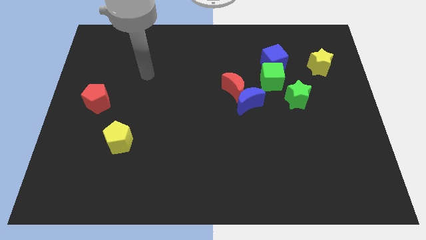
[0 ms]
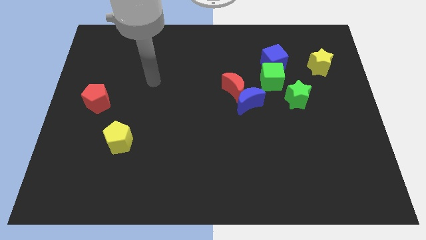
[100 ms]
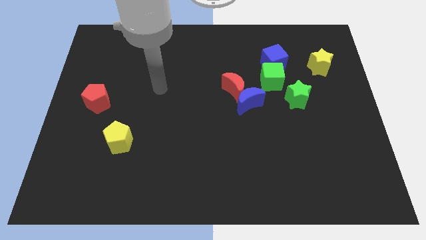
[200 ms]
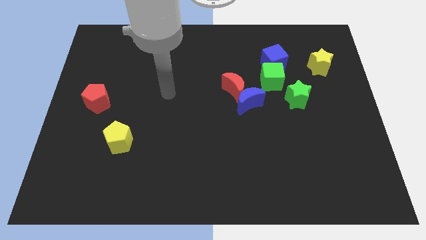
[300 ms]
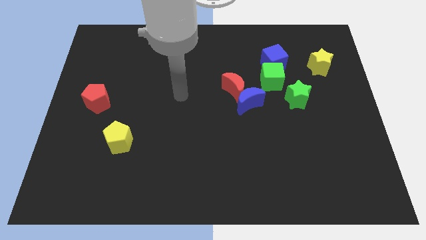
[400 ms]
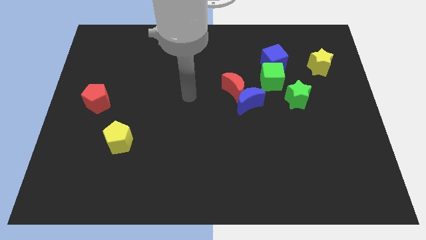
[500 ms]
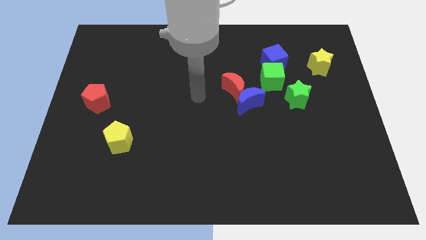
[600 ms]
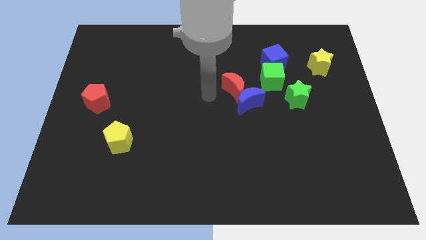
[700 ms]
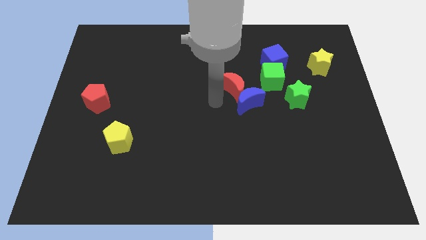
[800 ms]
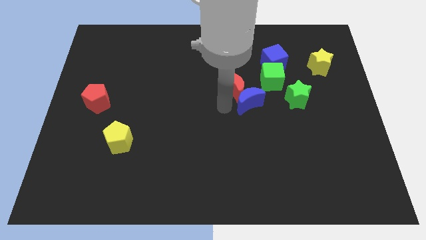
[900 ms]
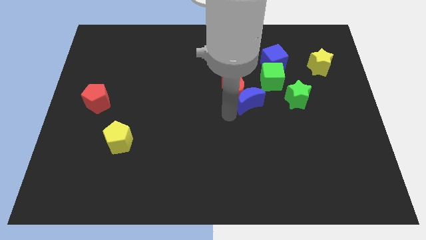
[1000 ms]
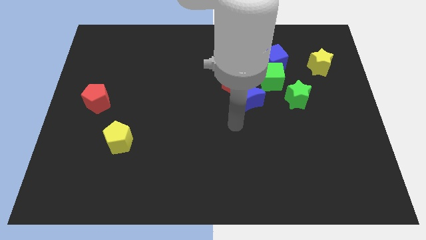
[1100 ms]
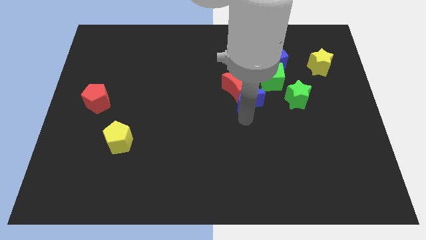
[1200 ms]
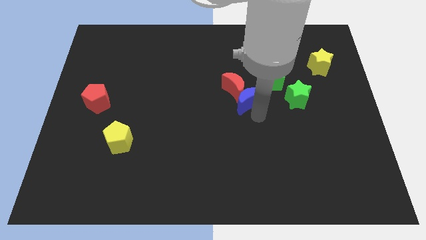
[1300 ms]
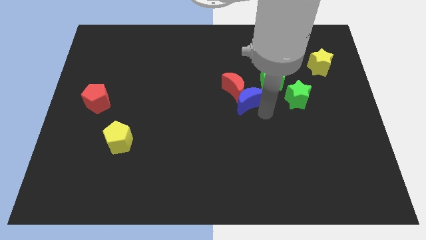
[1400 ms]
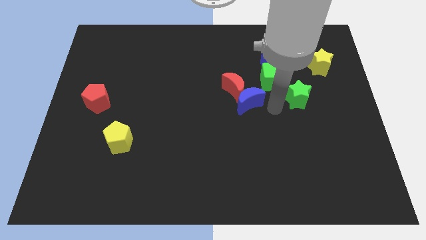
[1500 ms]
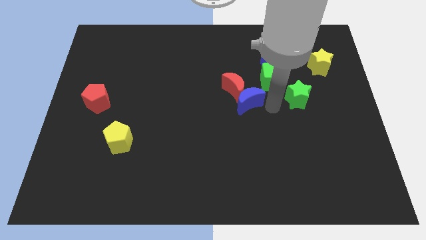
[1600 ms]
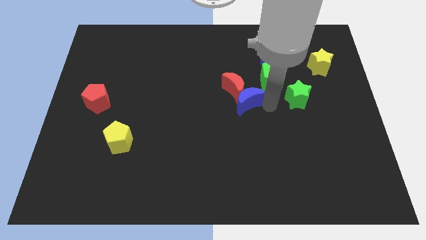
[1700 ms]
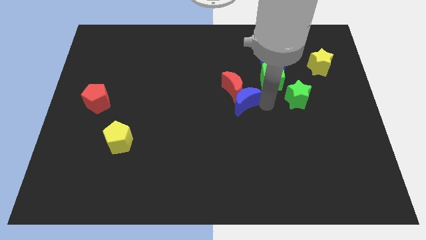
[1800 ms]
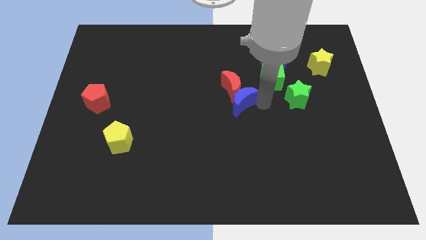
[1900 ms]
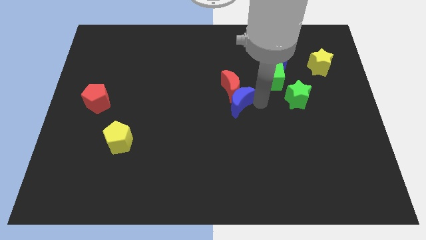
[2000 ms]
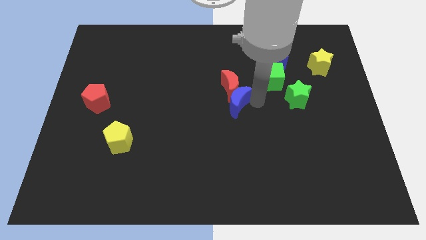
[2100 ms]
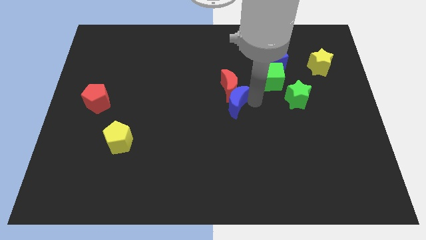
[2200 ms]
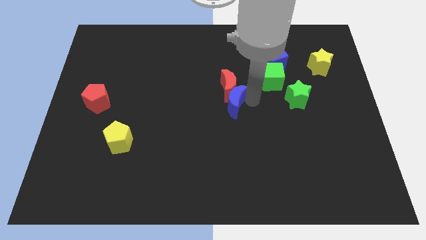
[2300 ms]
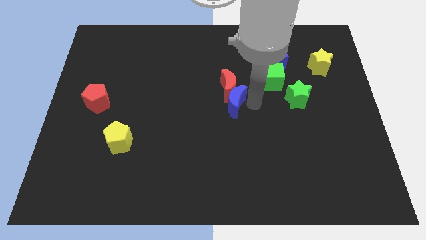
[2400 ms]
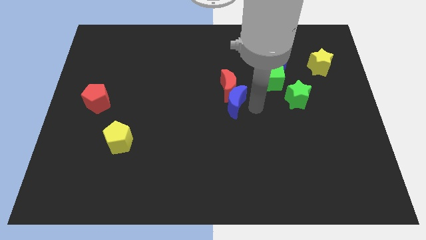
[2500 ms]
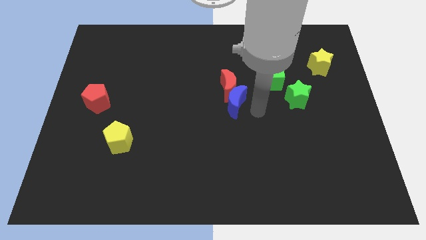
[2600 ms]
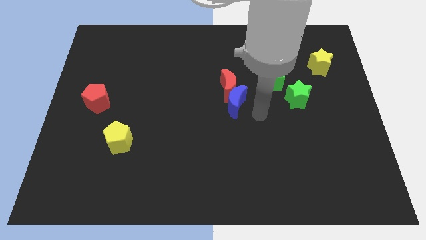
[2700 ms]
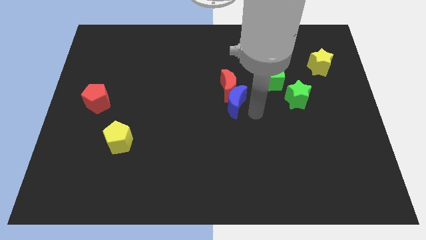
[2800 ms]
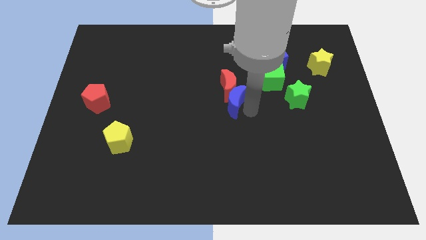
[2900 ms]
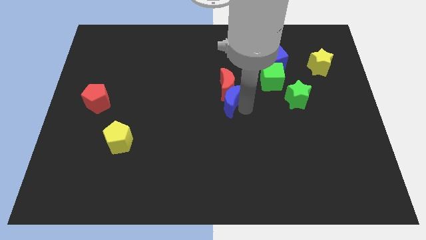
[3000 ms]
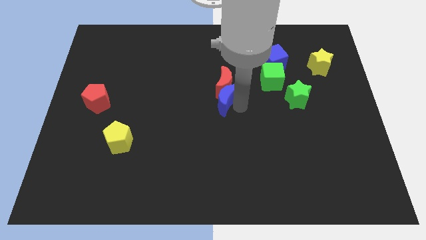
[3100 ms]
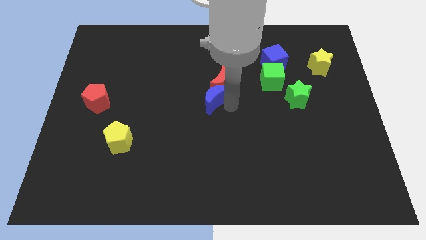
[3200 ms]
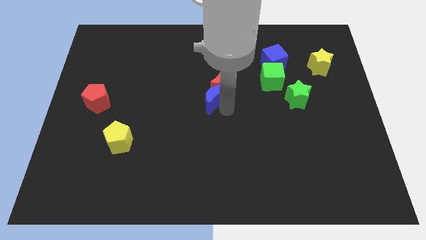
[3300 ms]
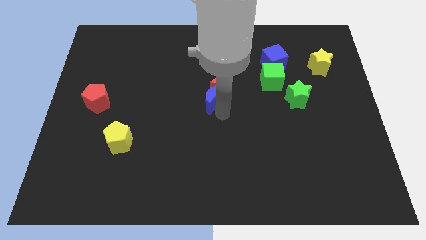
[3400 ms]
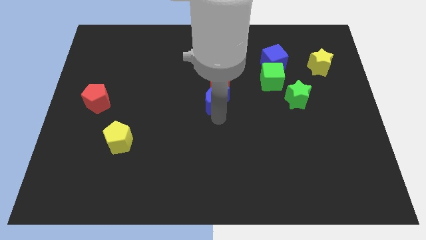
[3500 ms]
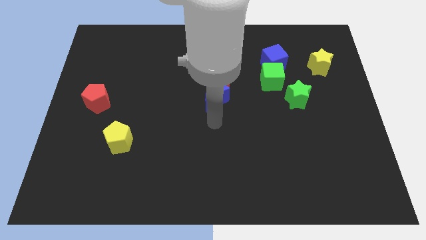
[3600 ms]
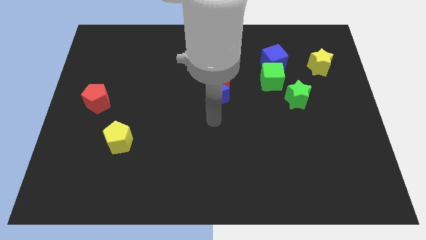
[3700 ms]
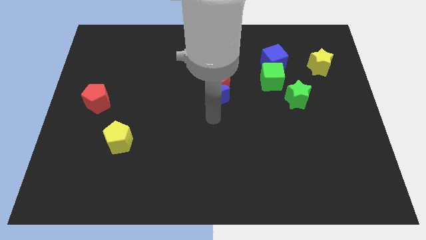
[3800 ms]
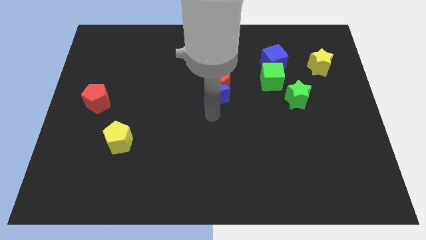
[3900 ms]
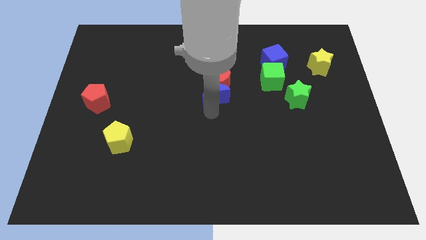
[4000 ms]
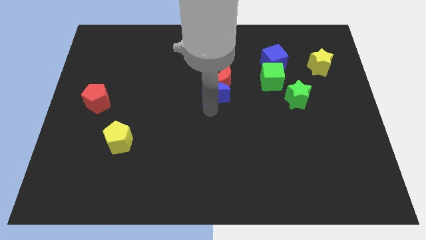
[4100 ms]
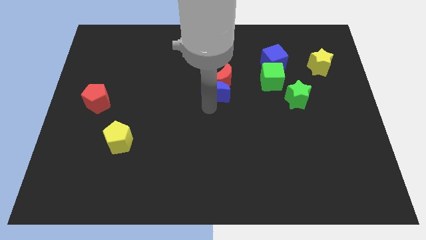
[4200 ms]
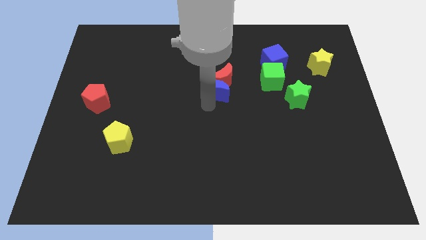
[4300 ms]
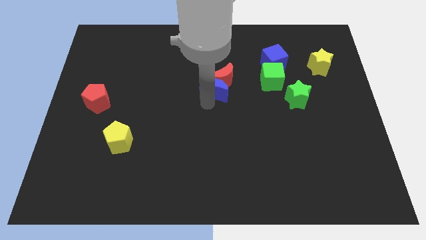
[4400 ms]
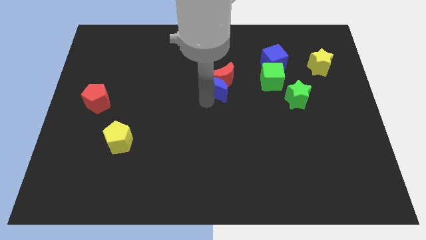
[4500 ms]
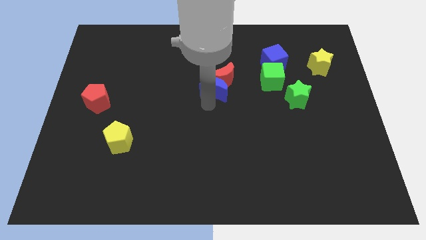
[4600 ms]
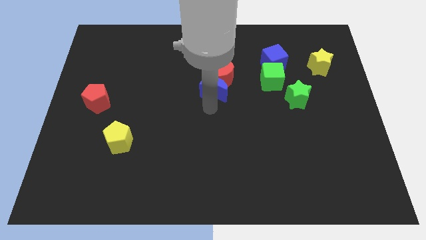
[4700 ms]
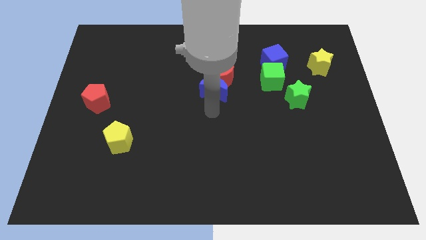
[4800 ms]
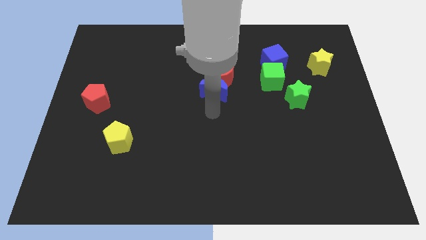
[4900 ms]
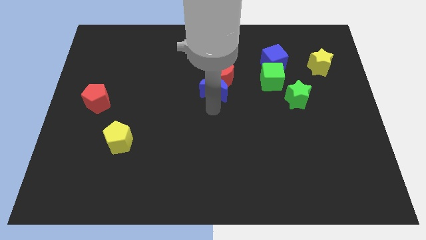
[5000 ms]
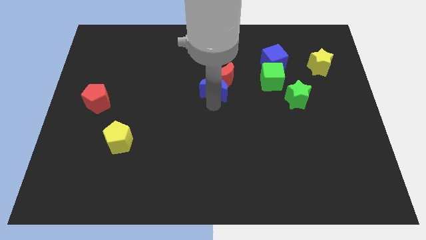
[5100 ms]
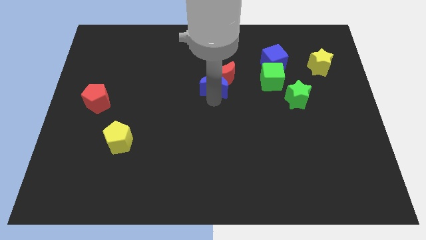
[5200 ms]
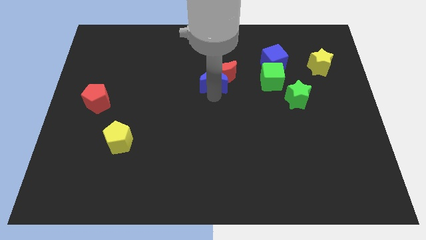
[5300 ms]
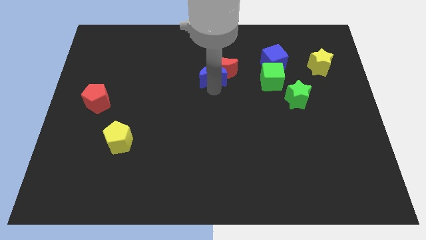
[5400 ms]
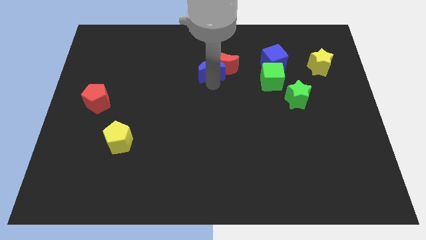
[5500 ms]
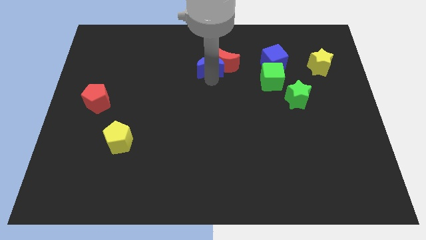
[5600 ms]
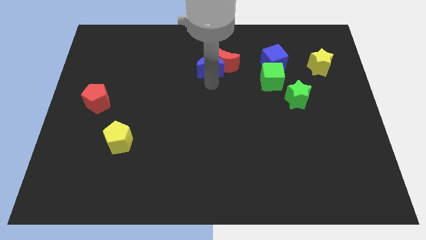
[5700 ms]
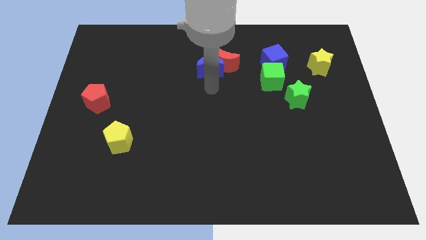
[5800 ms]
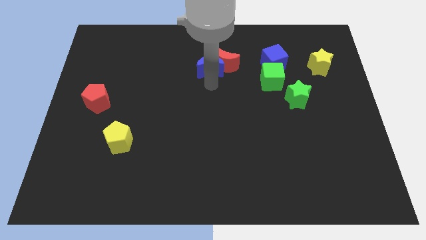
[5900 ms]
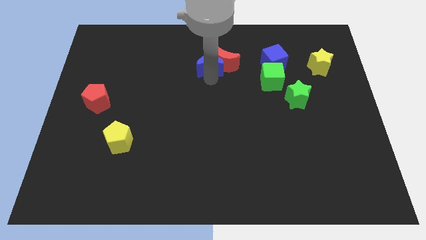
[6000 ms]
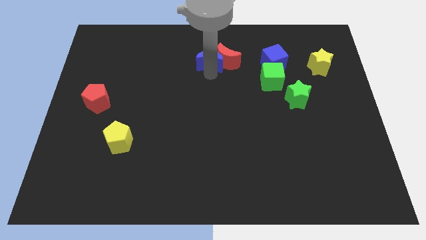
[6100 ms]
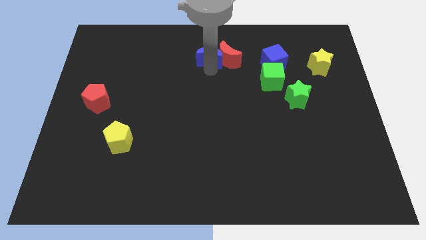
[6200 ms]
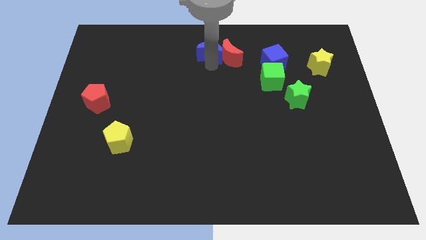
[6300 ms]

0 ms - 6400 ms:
push the blue moon to the towards your base
